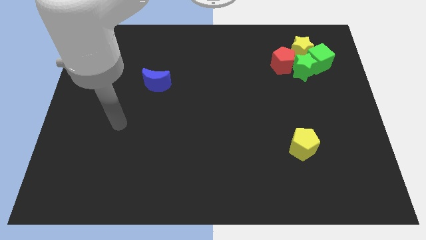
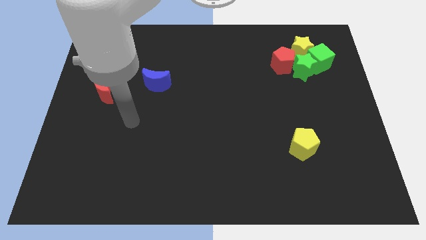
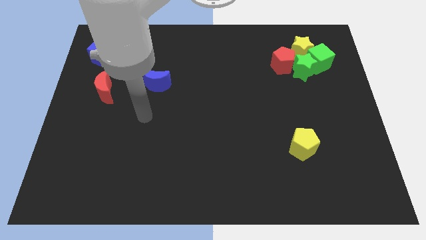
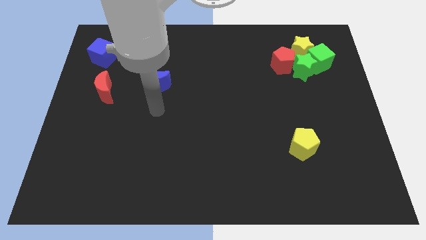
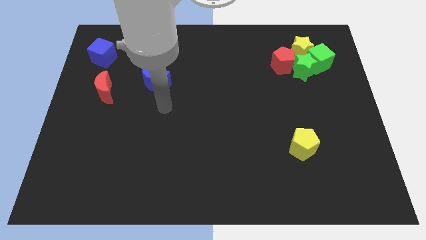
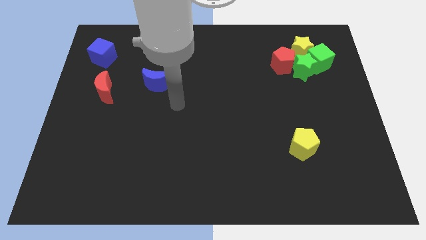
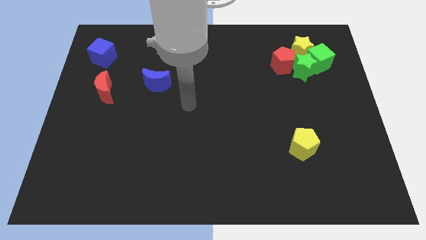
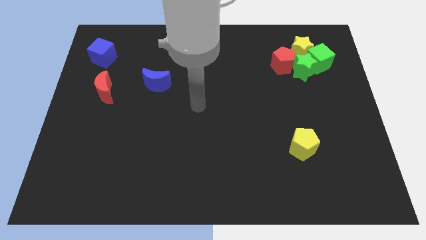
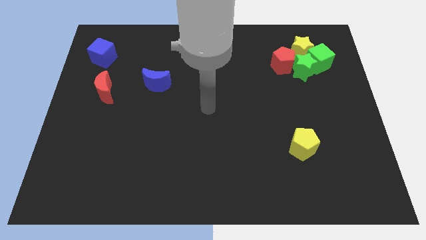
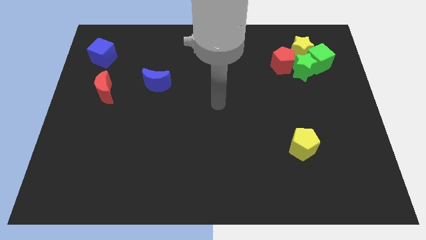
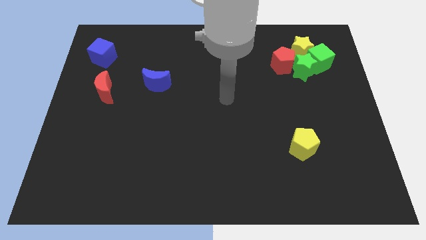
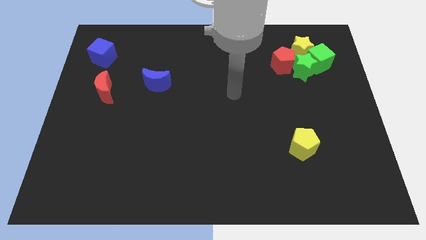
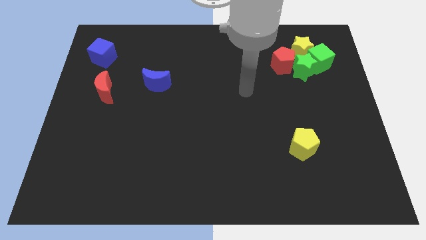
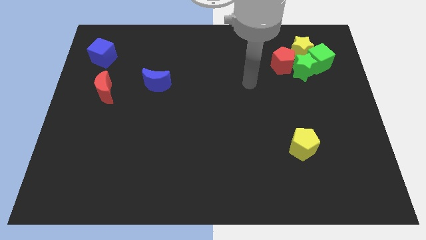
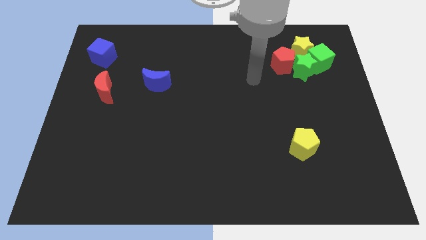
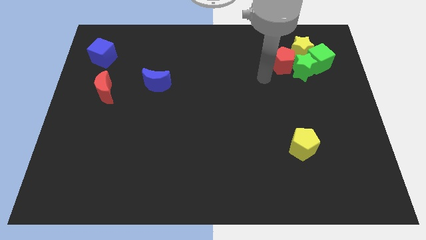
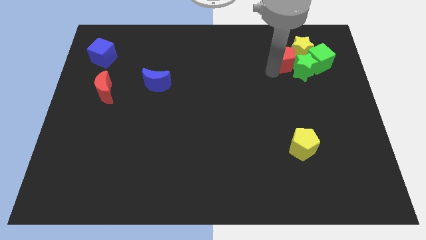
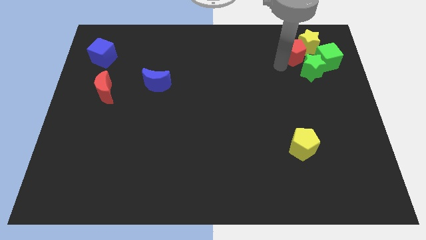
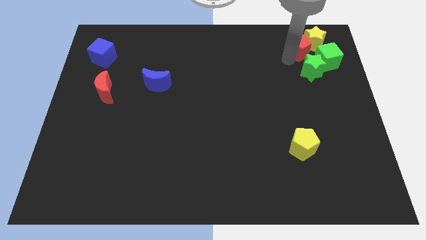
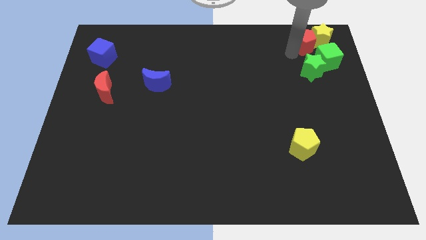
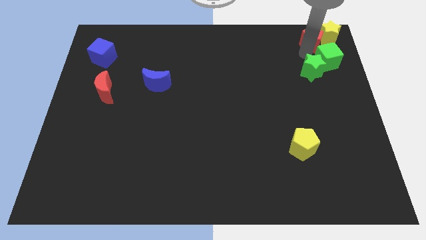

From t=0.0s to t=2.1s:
separate the green star from the red pentagon, green cube, and yellow star

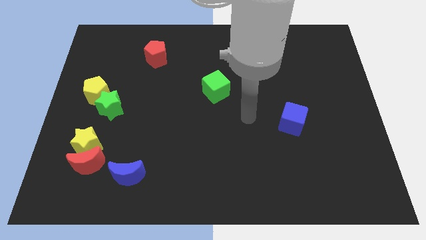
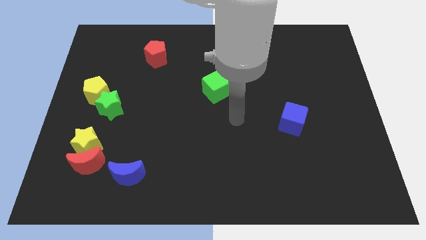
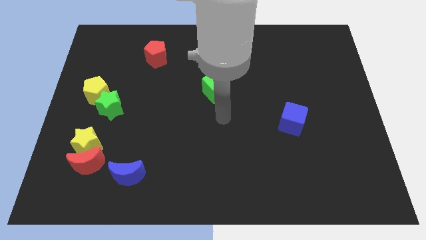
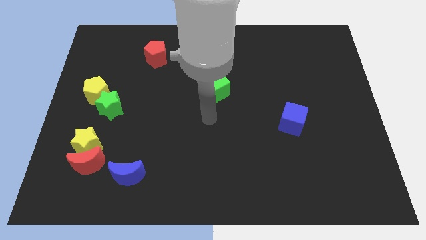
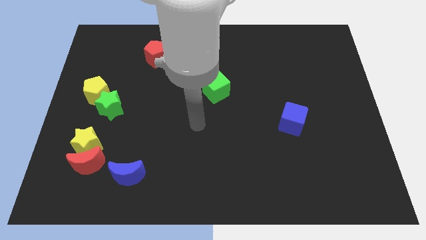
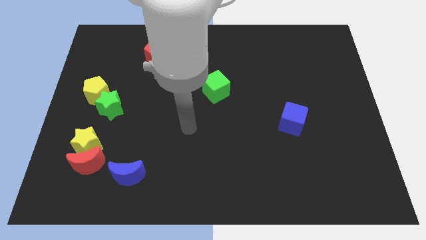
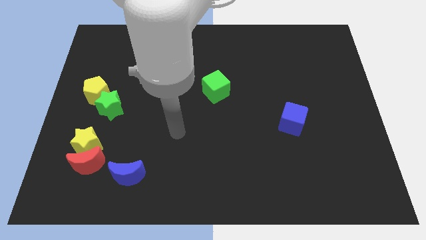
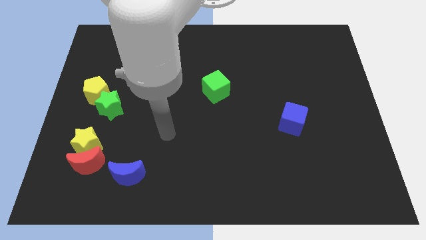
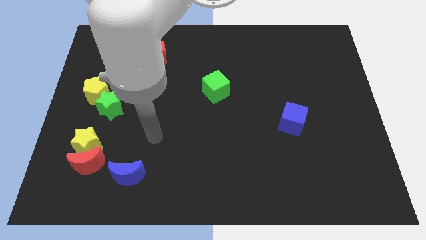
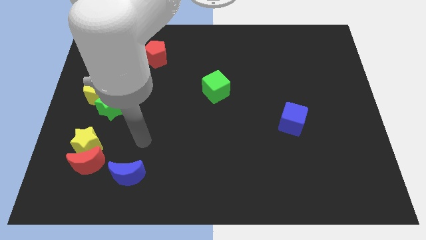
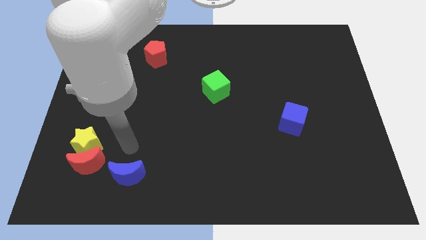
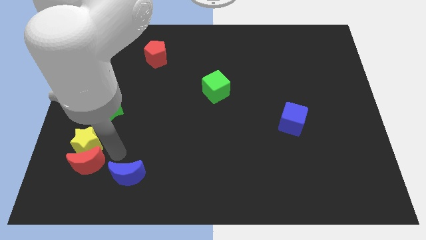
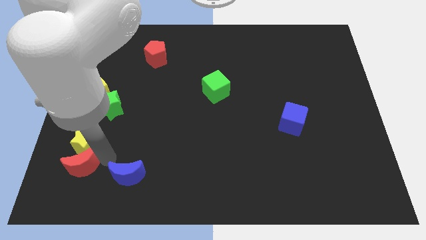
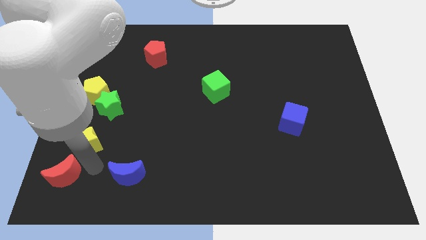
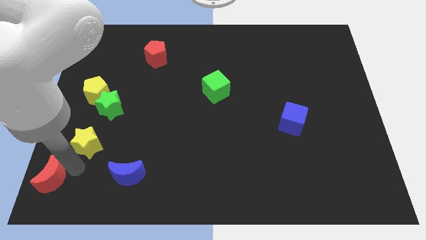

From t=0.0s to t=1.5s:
separate the yellow star from the red moon

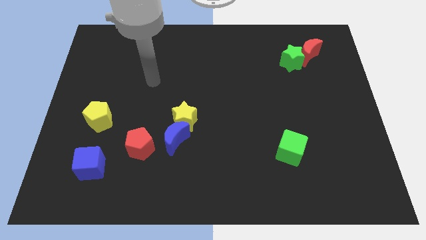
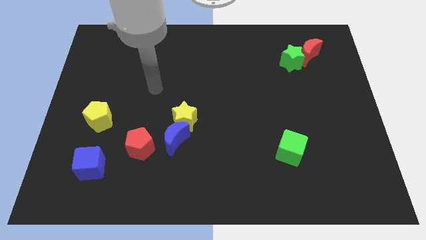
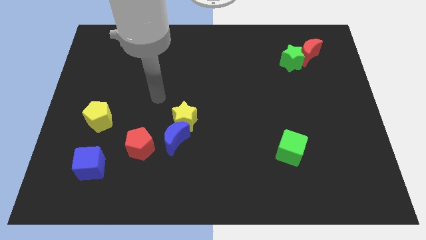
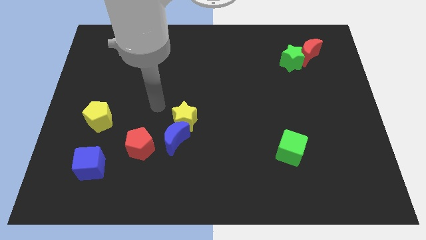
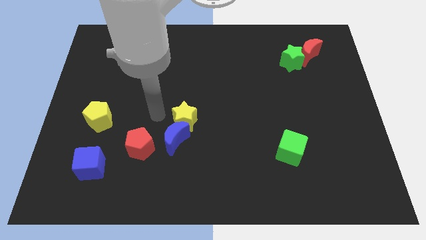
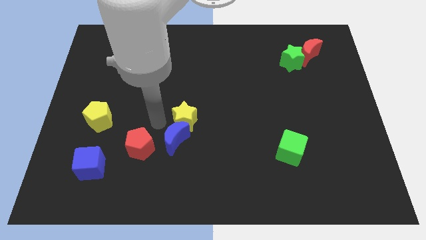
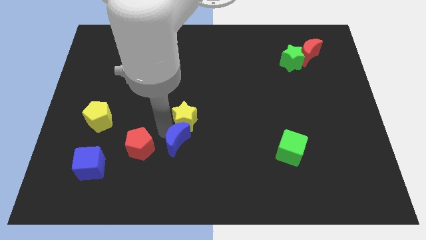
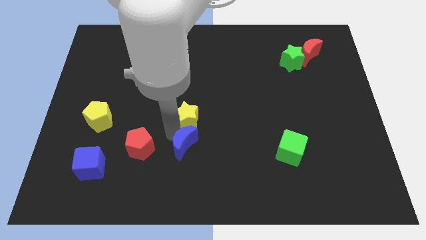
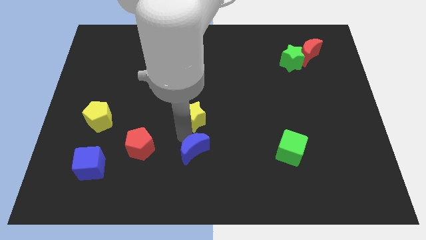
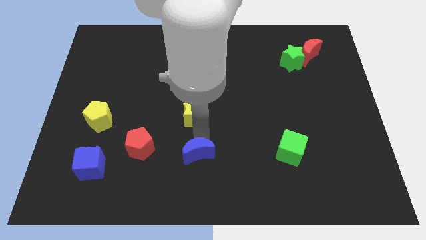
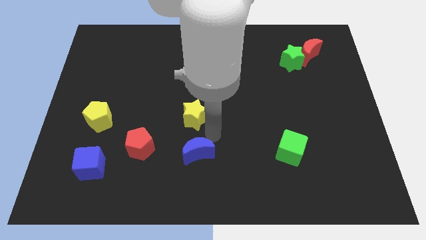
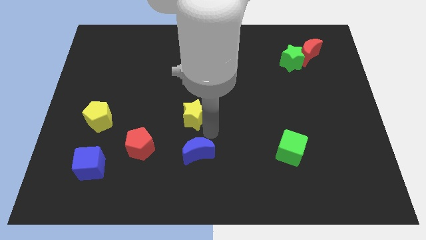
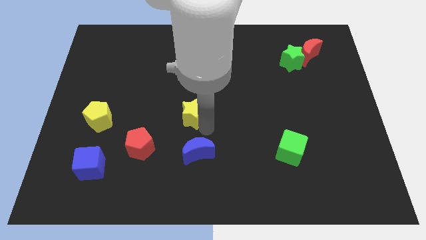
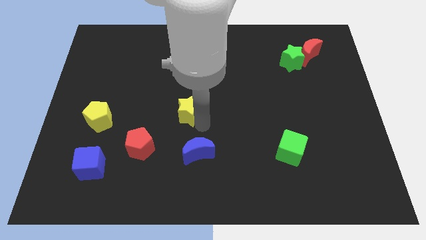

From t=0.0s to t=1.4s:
pull the yellow star apart from the blue moon

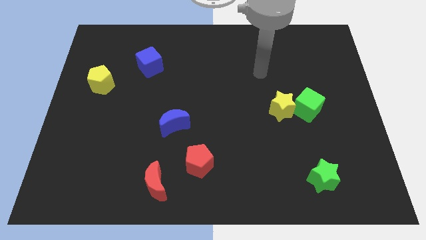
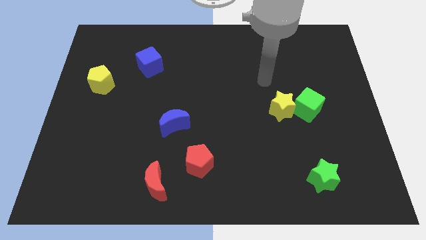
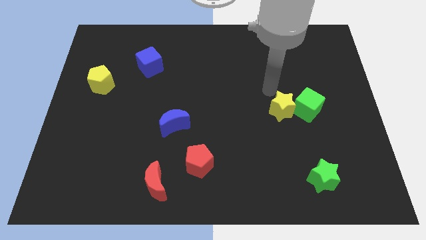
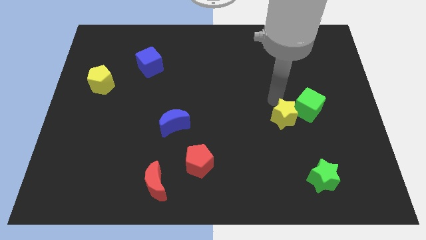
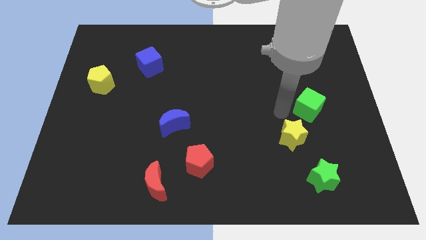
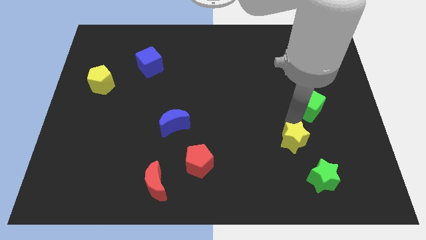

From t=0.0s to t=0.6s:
pull the green cube apart from the yellow star

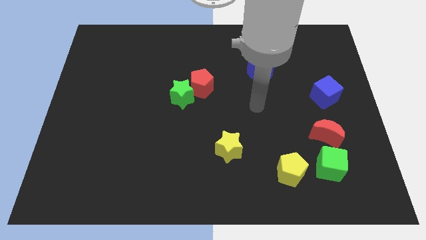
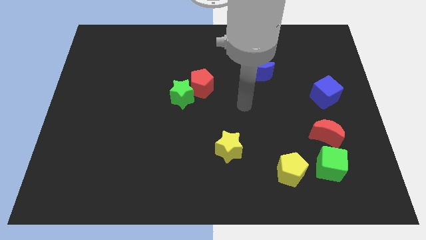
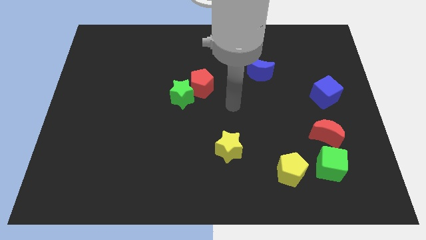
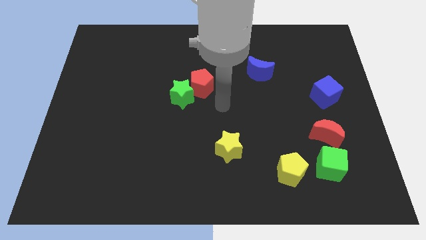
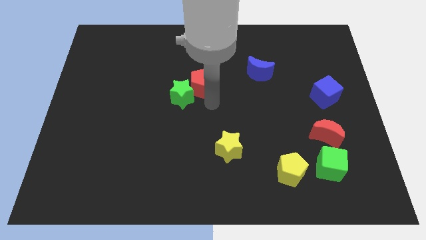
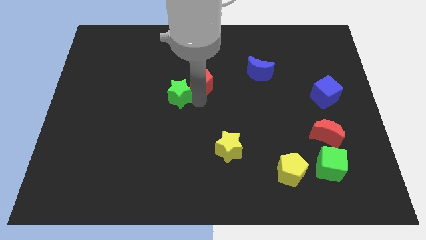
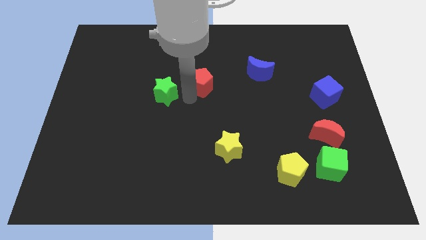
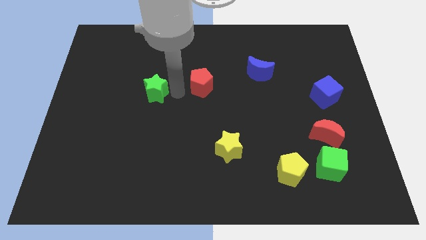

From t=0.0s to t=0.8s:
pull the red pentagon apart from the green star

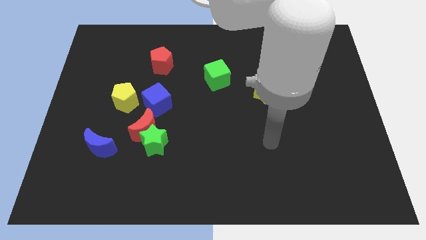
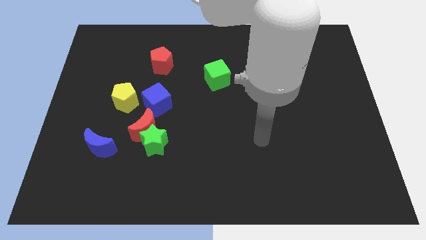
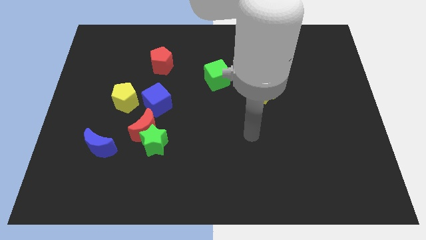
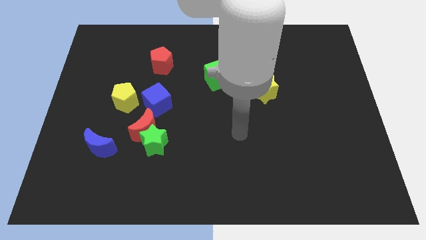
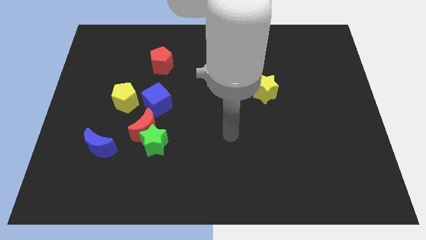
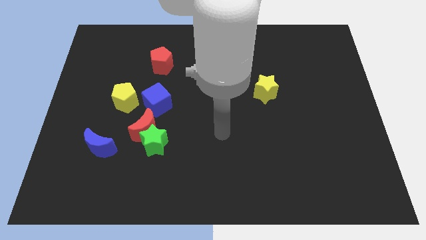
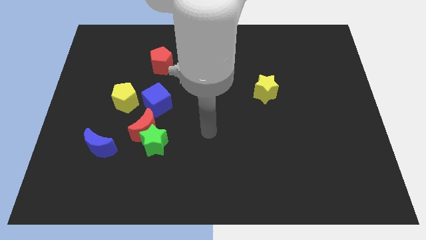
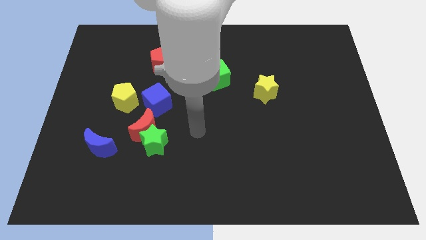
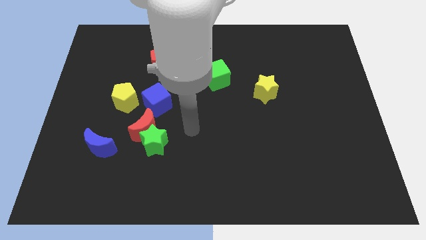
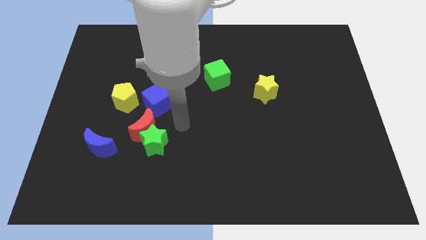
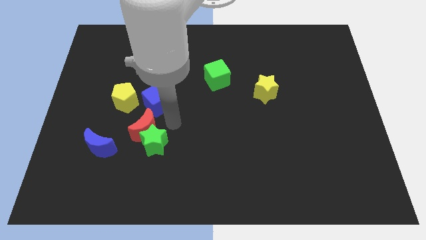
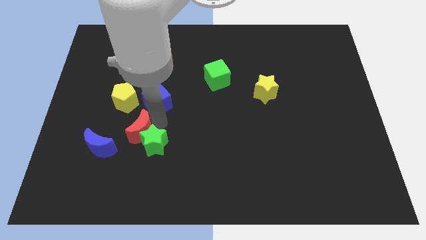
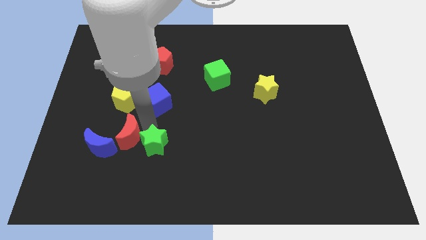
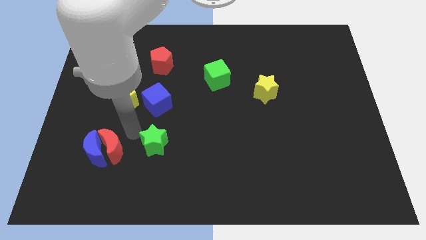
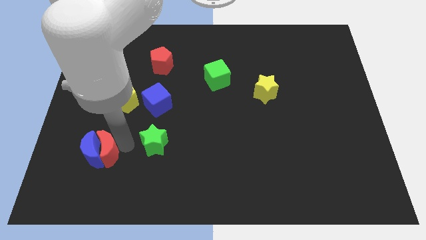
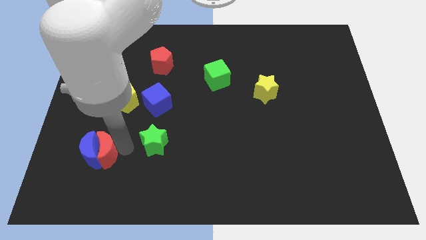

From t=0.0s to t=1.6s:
separate the green star from the red moon

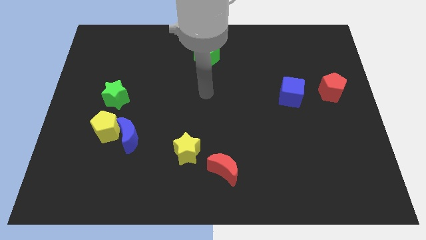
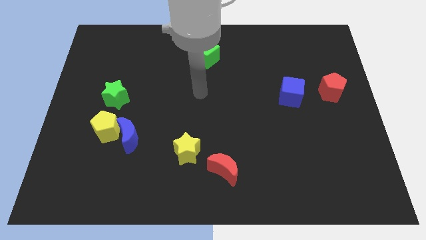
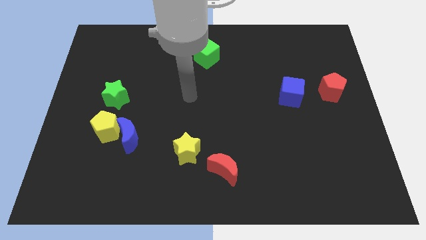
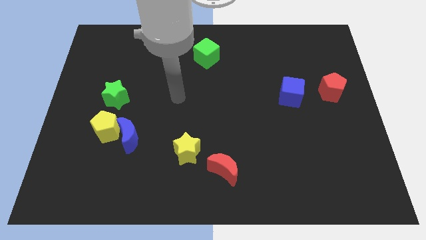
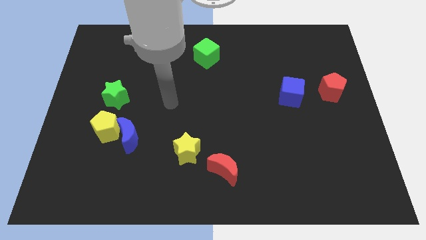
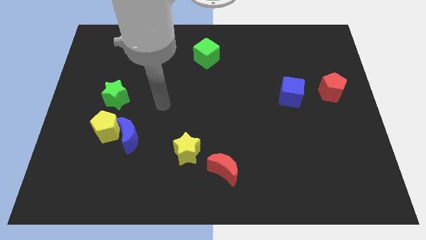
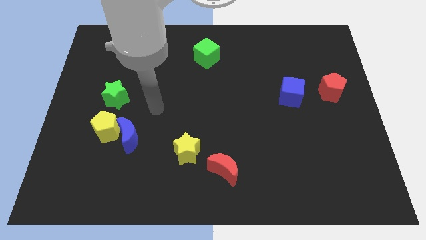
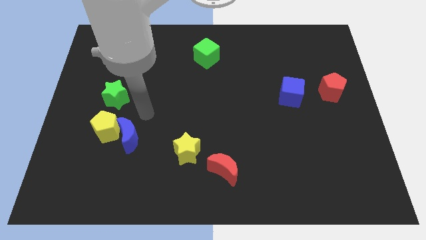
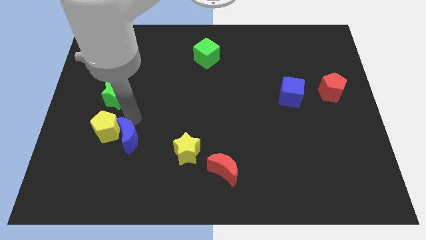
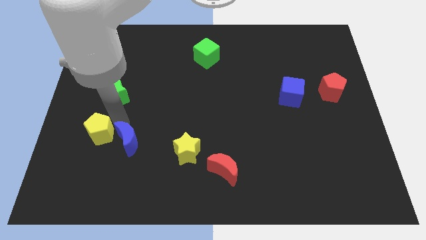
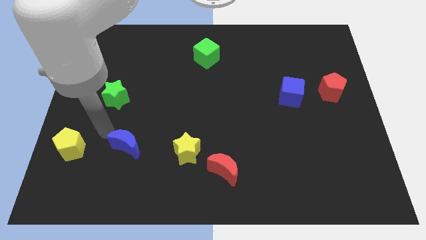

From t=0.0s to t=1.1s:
pull the blue moon apart from the yellow pentagon
